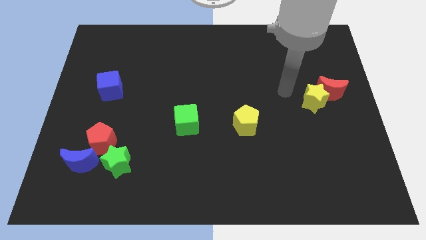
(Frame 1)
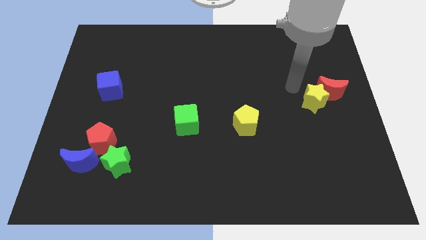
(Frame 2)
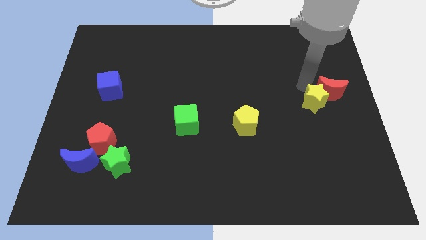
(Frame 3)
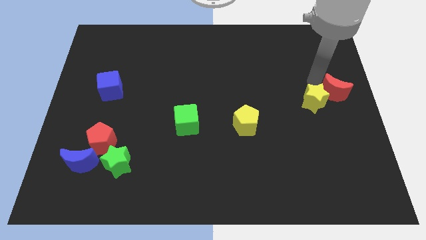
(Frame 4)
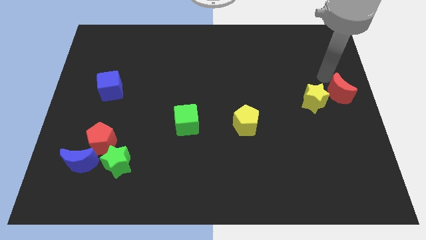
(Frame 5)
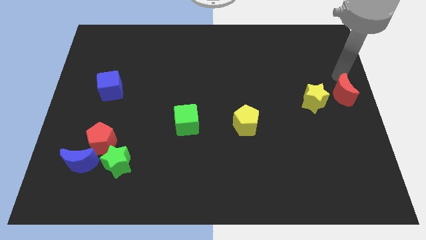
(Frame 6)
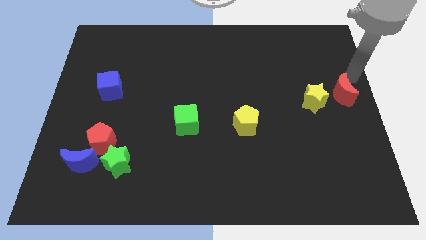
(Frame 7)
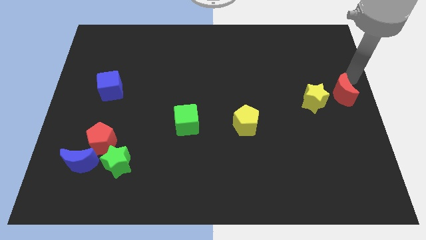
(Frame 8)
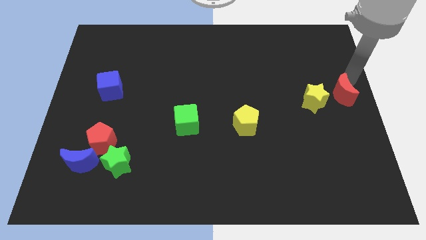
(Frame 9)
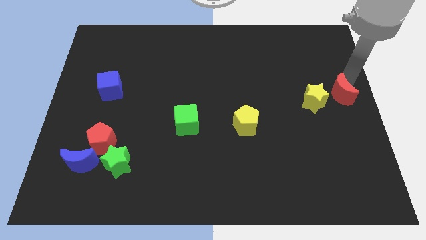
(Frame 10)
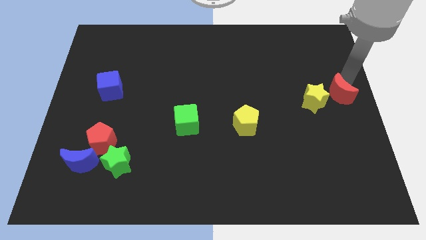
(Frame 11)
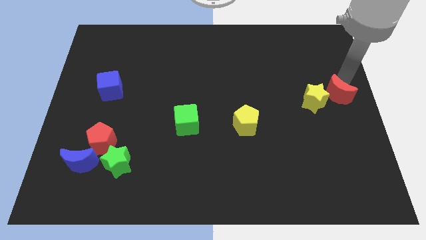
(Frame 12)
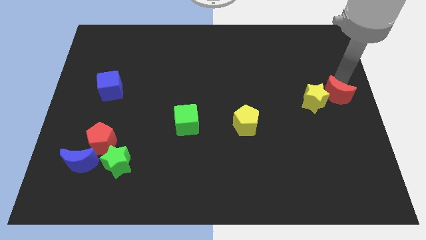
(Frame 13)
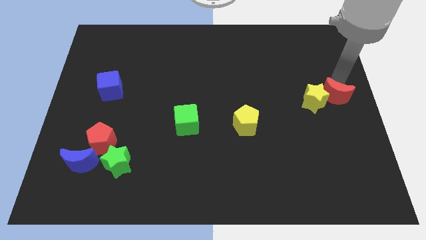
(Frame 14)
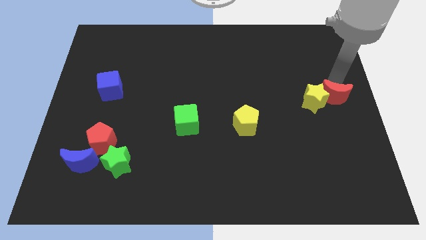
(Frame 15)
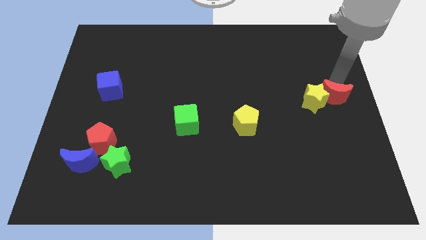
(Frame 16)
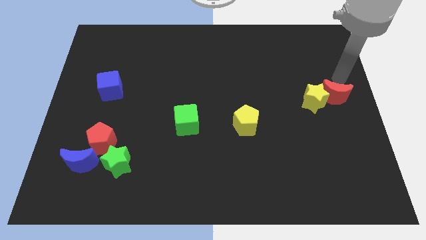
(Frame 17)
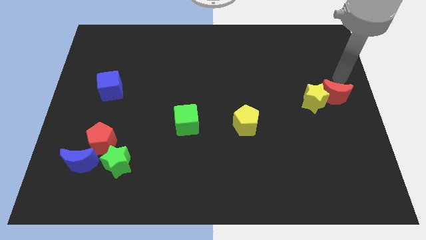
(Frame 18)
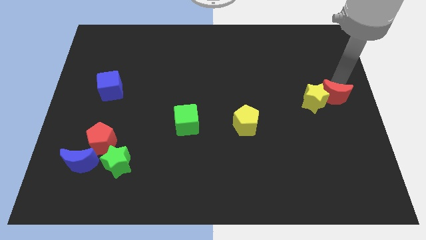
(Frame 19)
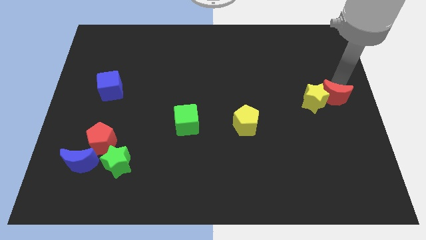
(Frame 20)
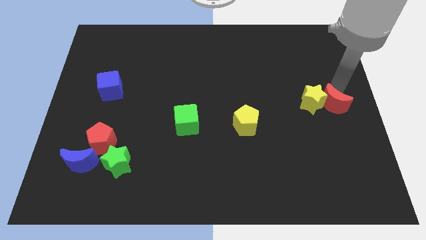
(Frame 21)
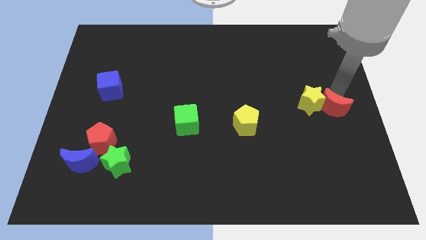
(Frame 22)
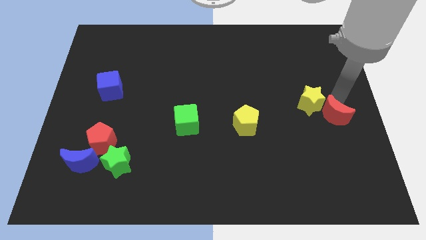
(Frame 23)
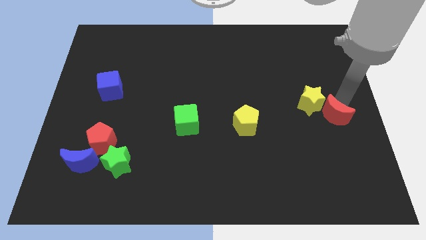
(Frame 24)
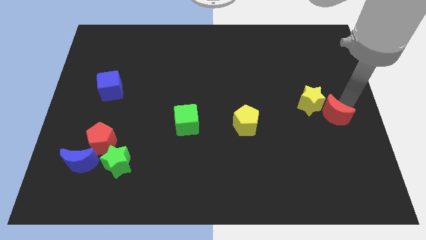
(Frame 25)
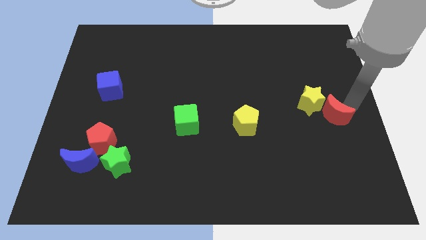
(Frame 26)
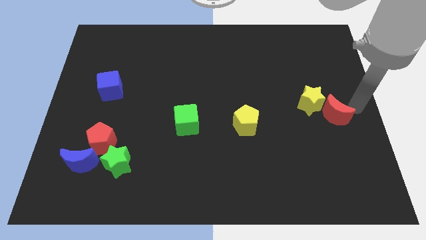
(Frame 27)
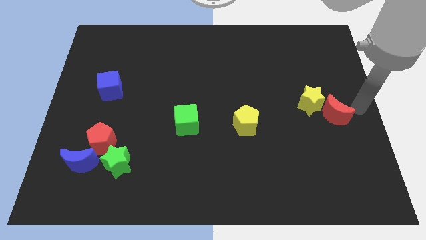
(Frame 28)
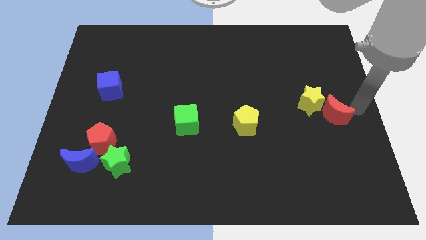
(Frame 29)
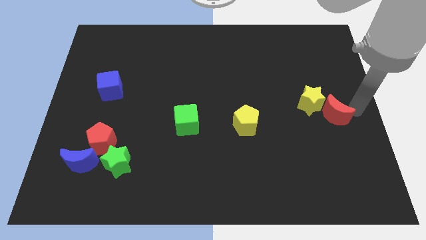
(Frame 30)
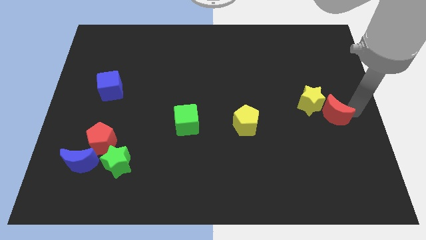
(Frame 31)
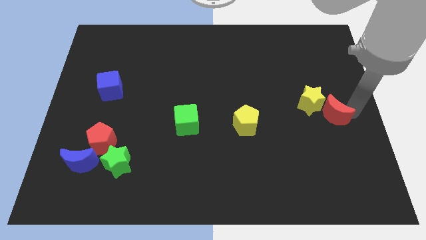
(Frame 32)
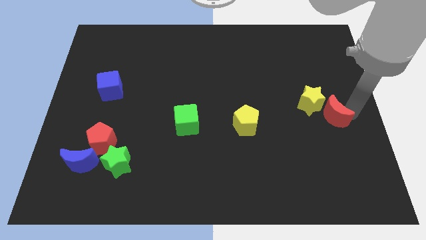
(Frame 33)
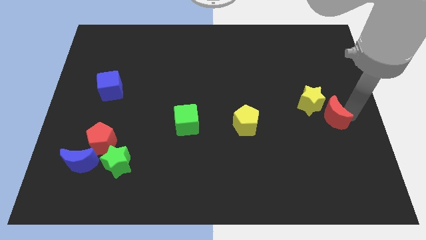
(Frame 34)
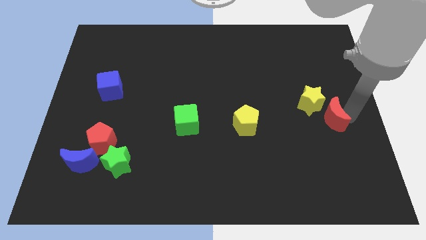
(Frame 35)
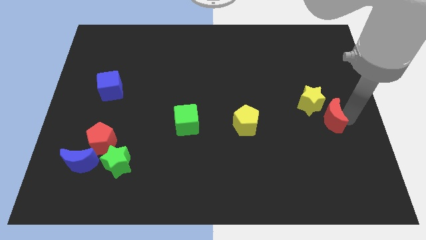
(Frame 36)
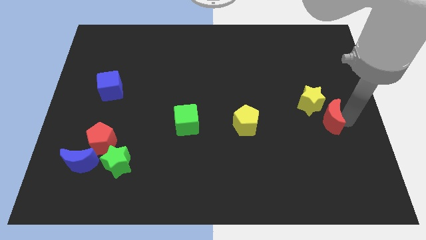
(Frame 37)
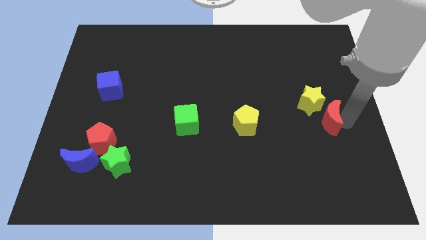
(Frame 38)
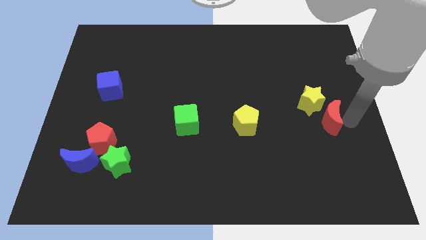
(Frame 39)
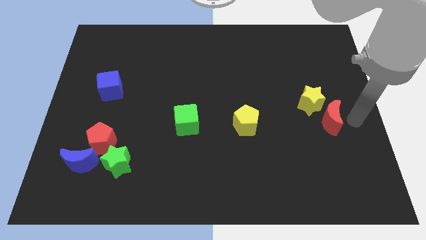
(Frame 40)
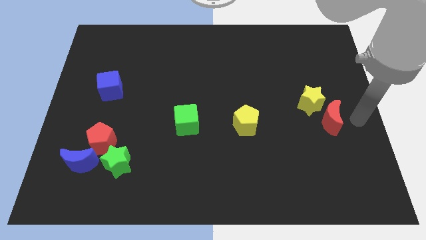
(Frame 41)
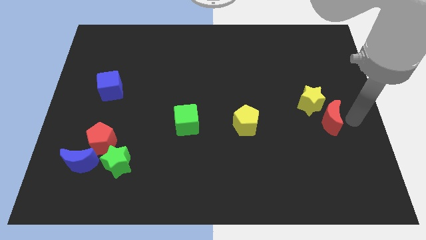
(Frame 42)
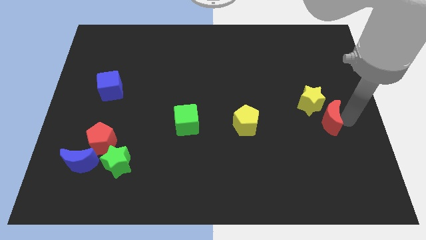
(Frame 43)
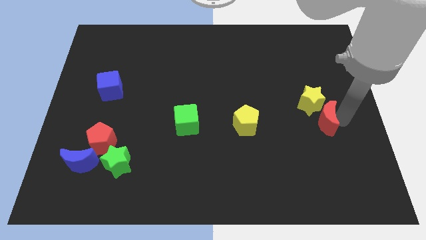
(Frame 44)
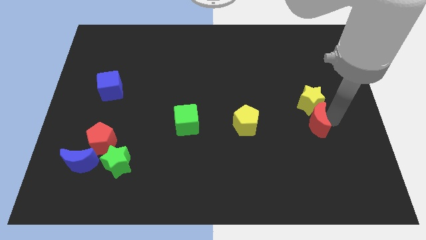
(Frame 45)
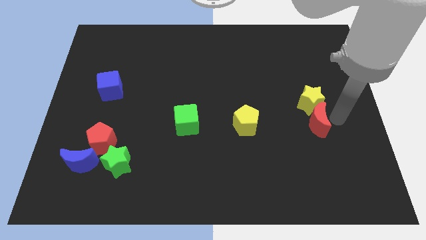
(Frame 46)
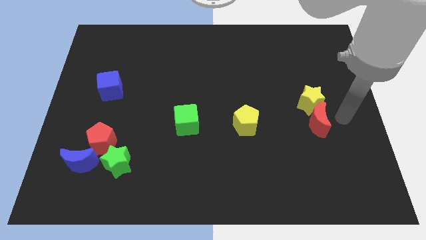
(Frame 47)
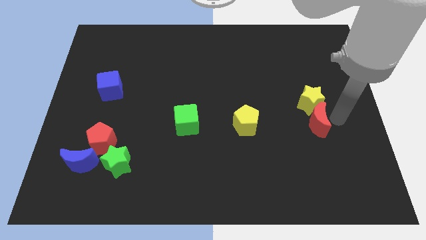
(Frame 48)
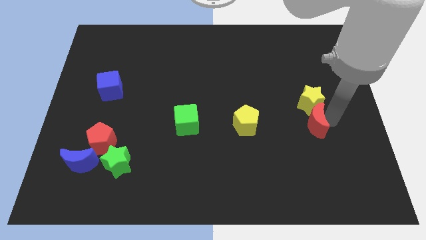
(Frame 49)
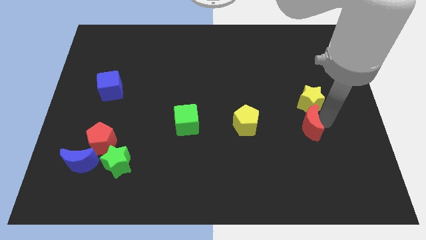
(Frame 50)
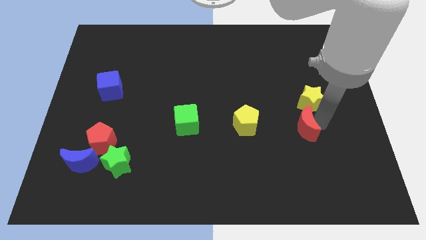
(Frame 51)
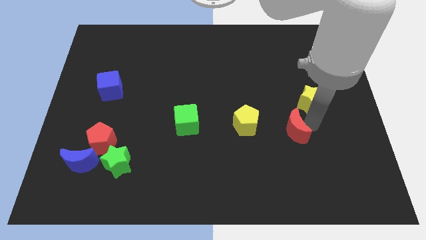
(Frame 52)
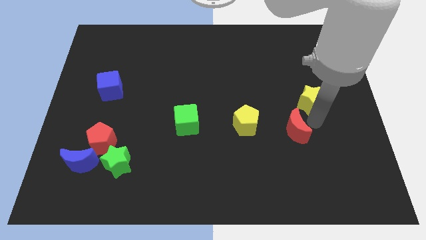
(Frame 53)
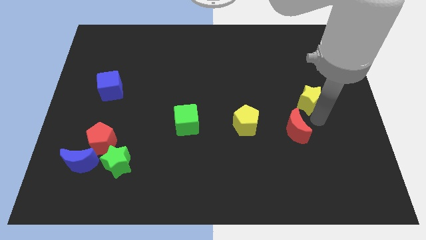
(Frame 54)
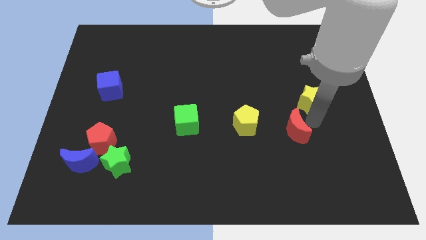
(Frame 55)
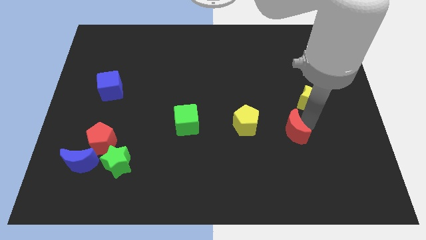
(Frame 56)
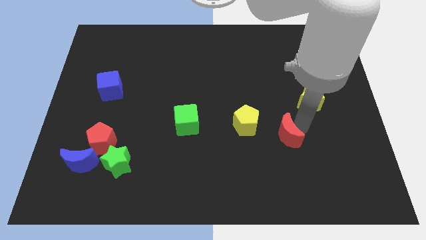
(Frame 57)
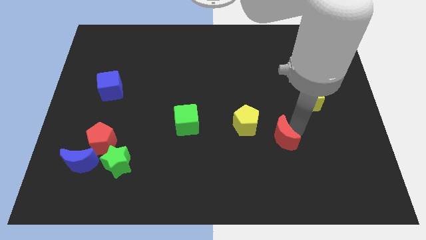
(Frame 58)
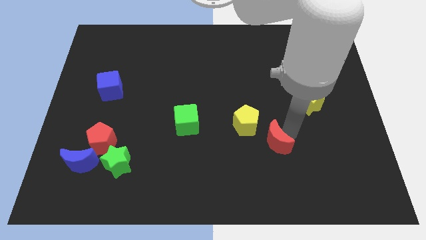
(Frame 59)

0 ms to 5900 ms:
push the red moon down and then left

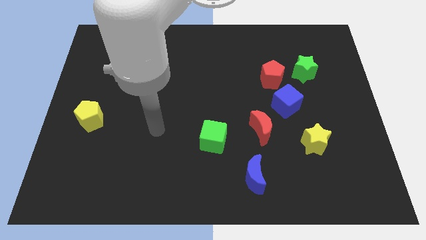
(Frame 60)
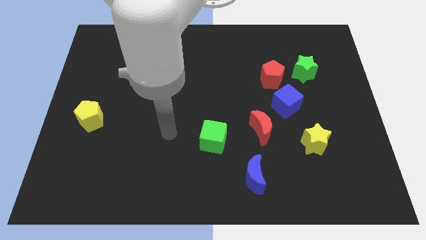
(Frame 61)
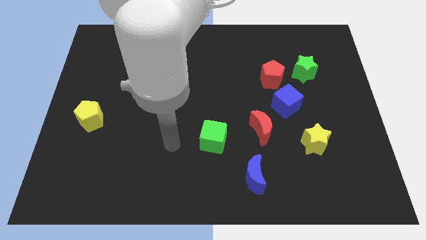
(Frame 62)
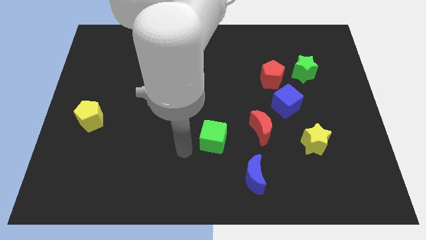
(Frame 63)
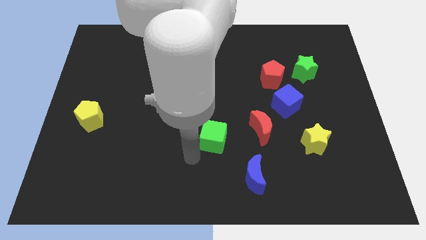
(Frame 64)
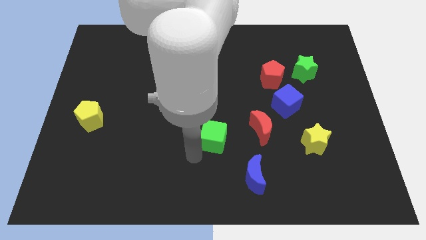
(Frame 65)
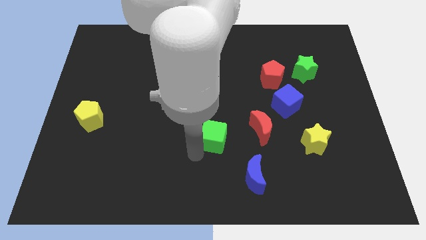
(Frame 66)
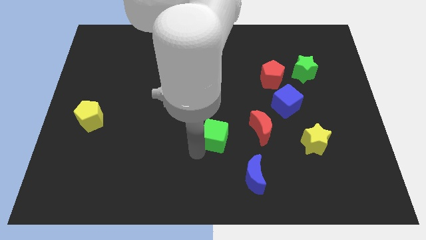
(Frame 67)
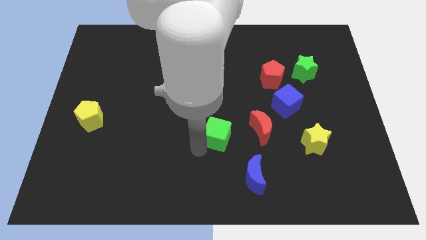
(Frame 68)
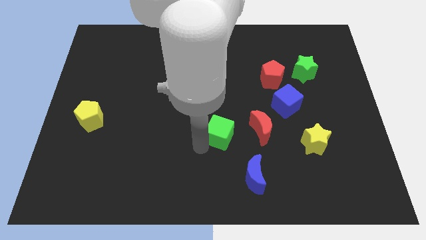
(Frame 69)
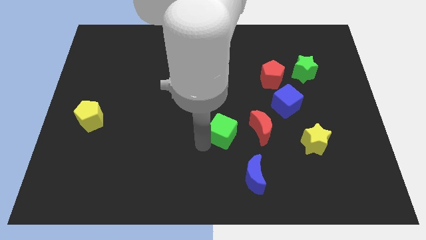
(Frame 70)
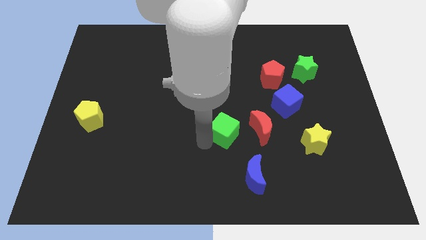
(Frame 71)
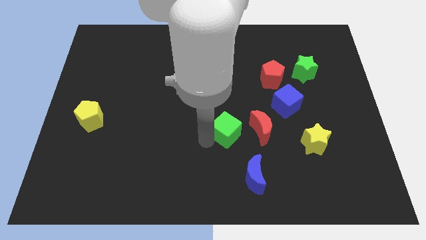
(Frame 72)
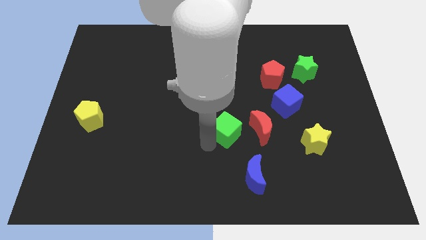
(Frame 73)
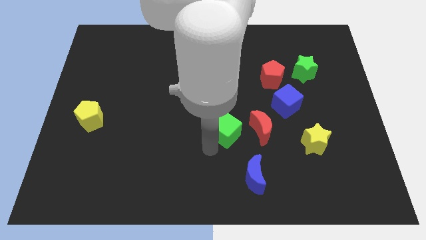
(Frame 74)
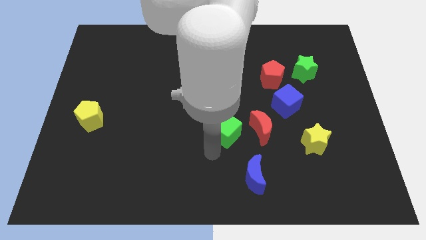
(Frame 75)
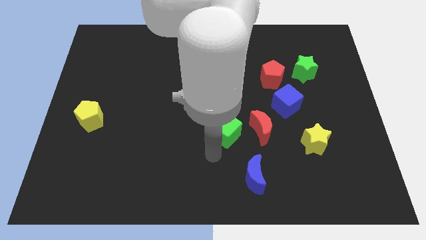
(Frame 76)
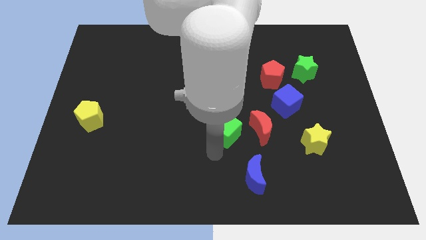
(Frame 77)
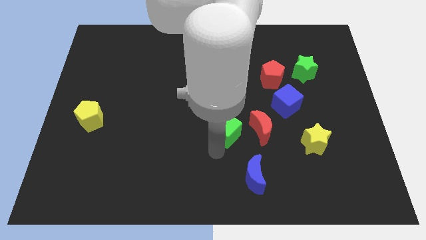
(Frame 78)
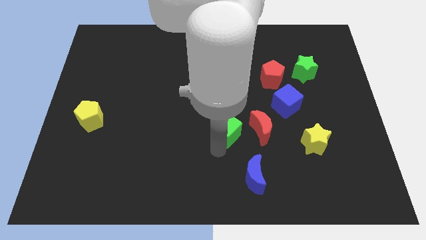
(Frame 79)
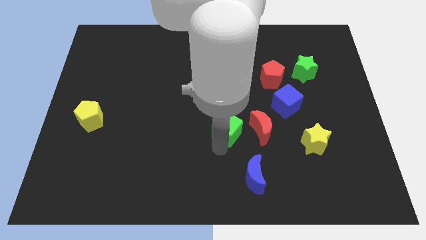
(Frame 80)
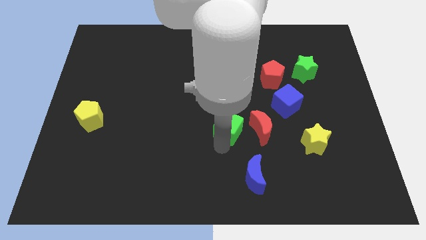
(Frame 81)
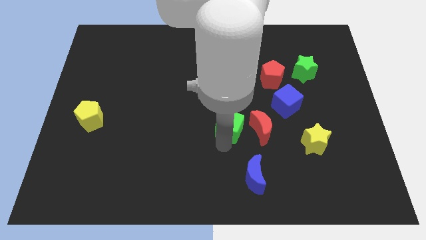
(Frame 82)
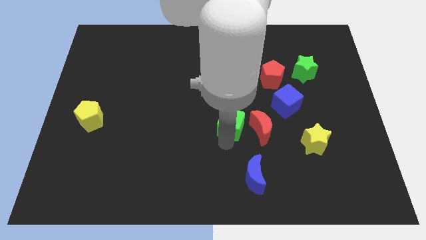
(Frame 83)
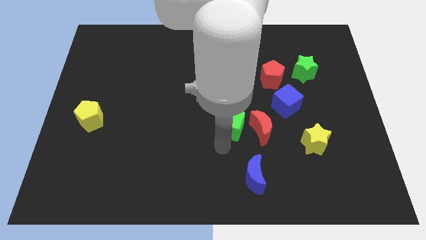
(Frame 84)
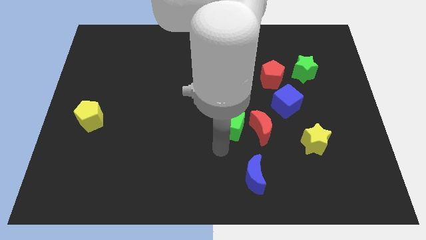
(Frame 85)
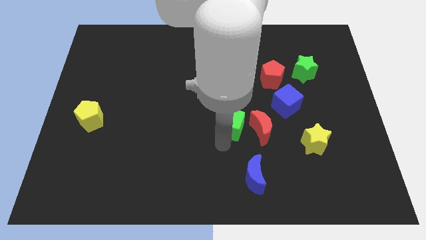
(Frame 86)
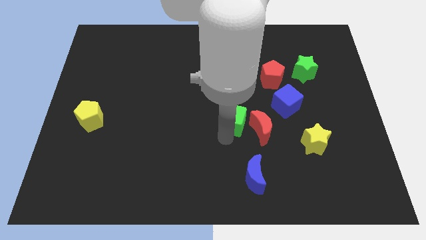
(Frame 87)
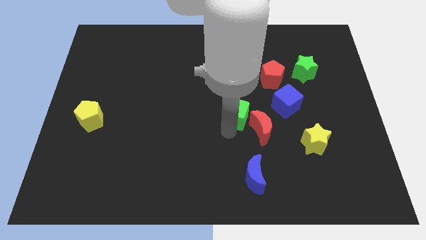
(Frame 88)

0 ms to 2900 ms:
slightly move the green cube up and right
